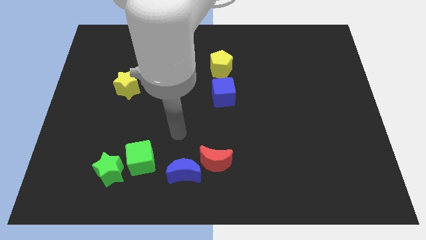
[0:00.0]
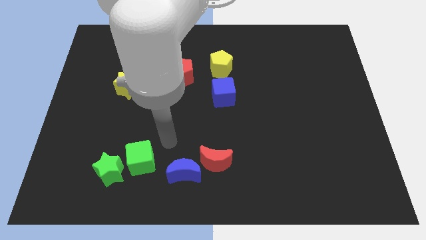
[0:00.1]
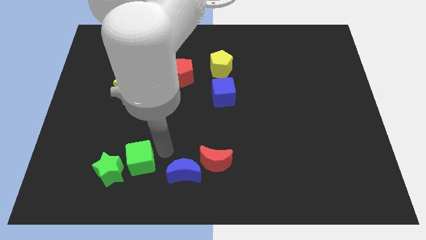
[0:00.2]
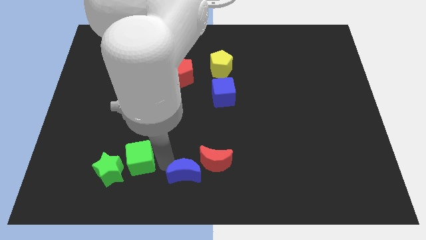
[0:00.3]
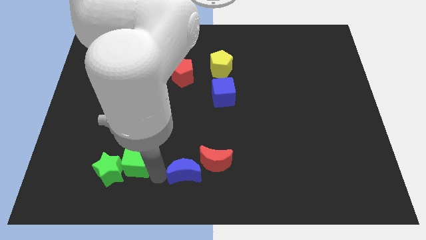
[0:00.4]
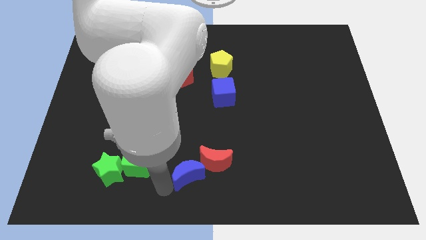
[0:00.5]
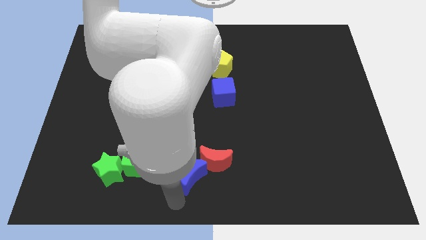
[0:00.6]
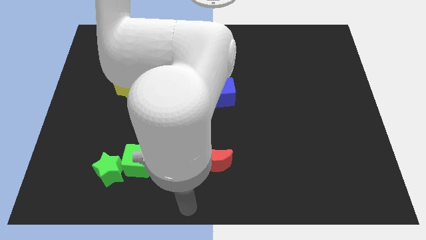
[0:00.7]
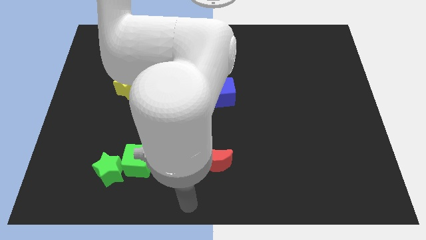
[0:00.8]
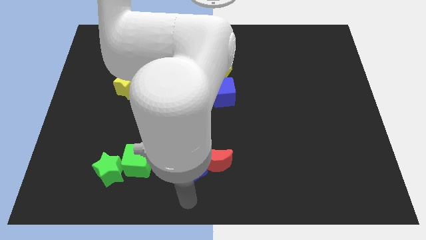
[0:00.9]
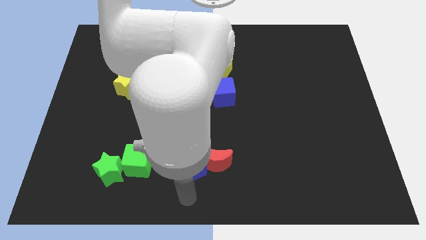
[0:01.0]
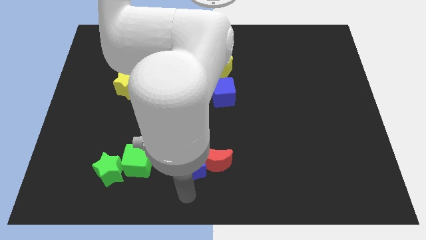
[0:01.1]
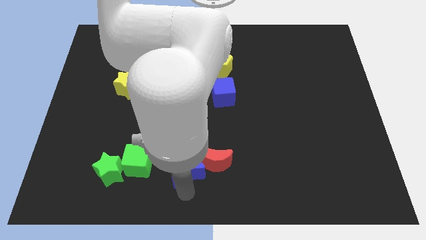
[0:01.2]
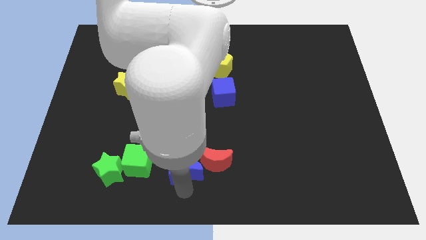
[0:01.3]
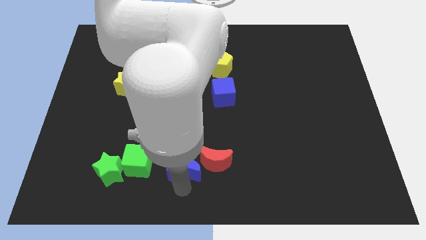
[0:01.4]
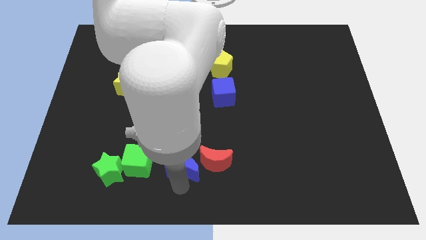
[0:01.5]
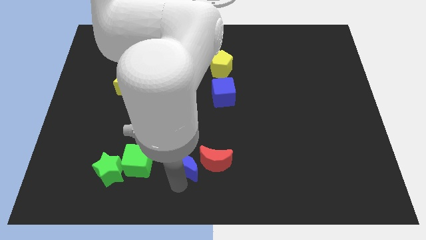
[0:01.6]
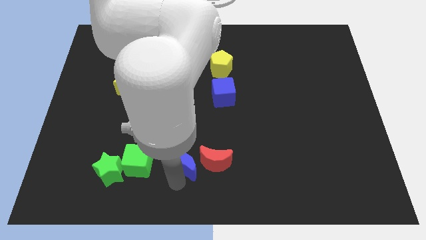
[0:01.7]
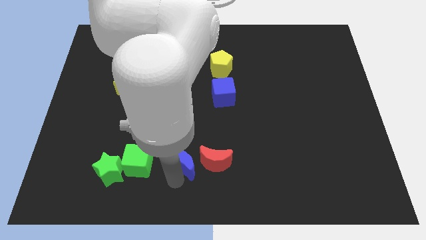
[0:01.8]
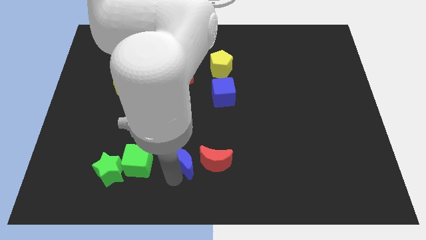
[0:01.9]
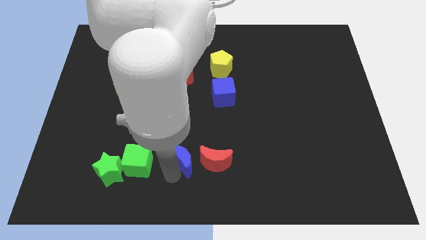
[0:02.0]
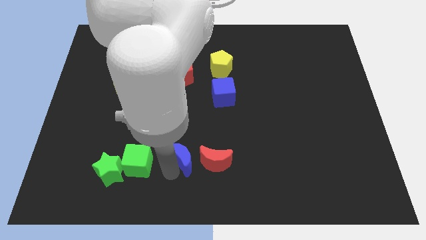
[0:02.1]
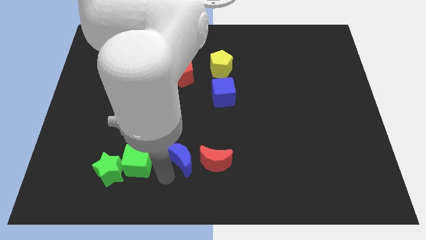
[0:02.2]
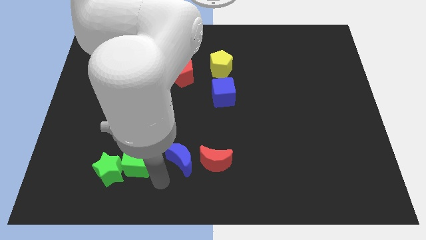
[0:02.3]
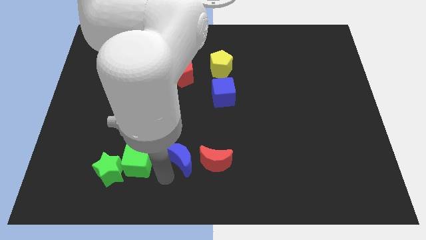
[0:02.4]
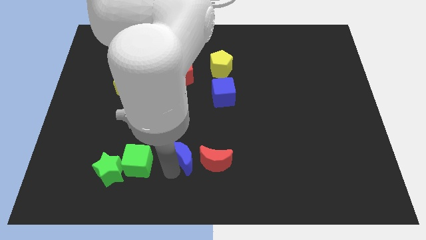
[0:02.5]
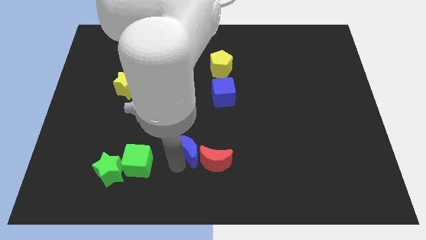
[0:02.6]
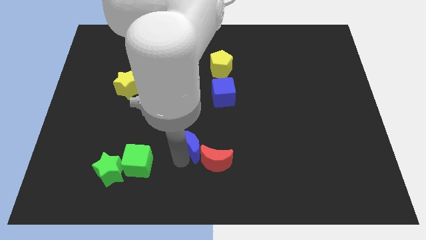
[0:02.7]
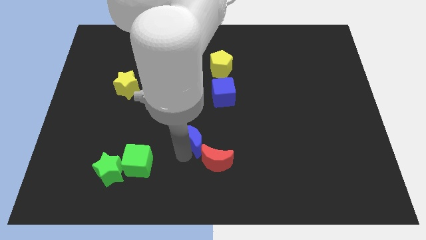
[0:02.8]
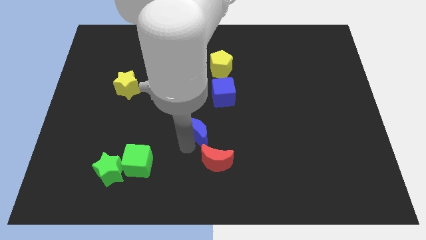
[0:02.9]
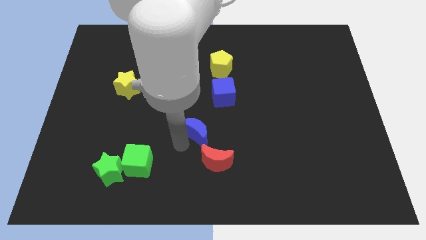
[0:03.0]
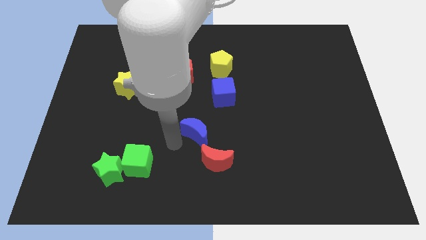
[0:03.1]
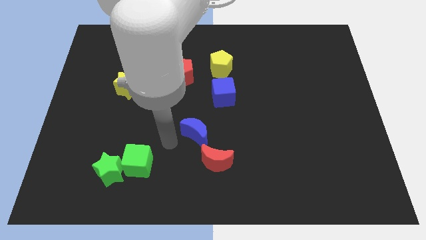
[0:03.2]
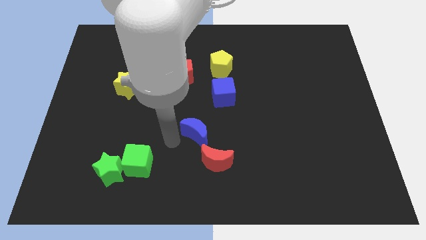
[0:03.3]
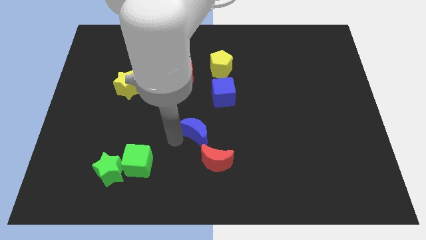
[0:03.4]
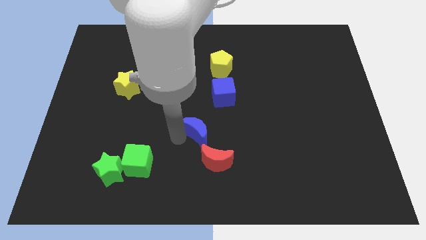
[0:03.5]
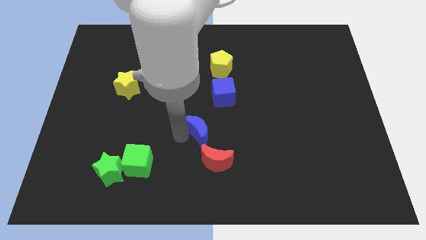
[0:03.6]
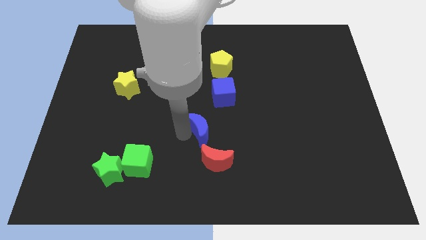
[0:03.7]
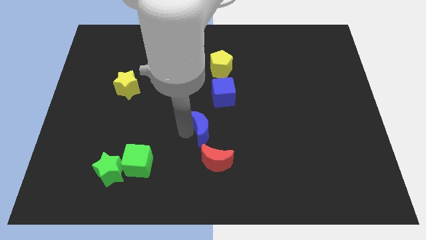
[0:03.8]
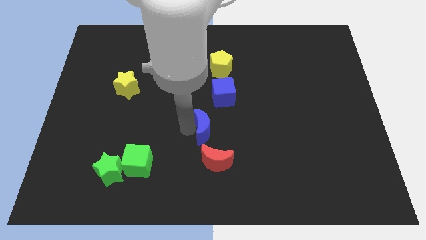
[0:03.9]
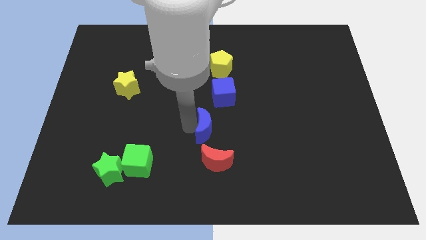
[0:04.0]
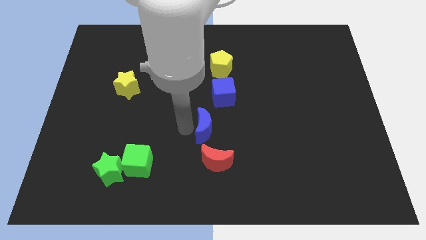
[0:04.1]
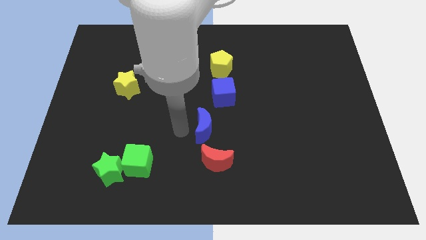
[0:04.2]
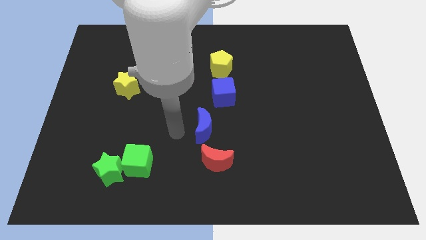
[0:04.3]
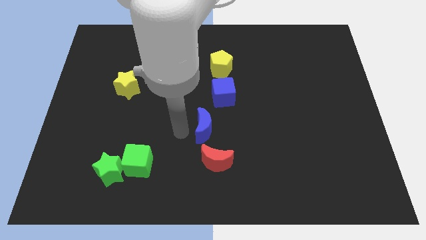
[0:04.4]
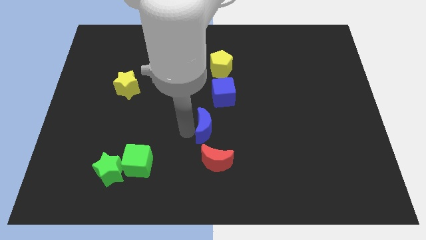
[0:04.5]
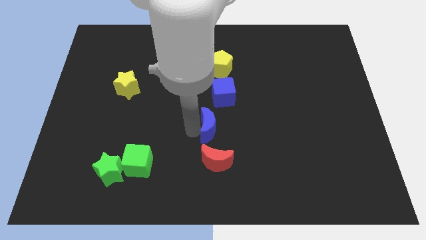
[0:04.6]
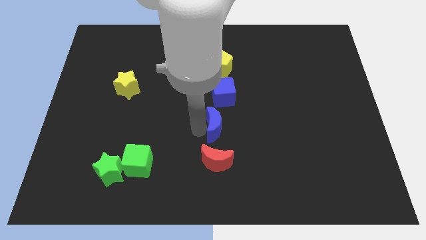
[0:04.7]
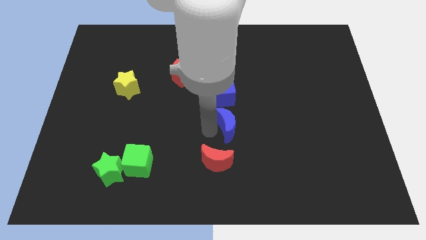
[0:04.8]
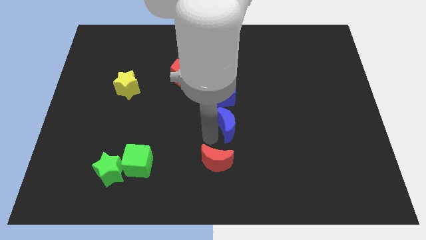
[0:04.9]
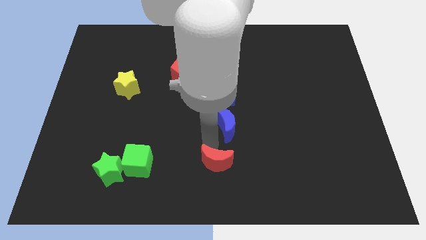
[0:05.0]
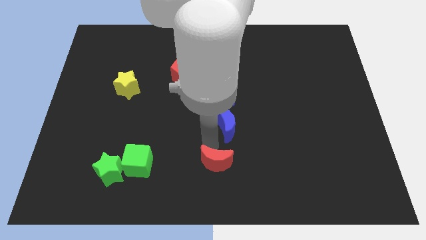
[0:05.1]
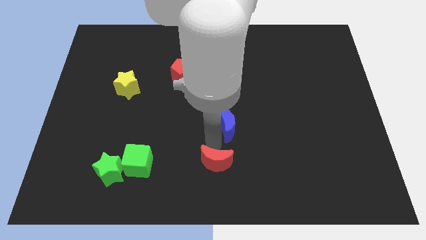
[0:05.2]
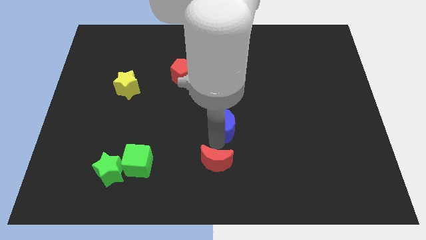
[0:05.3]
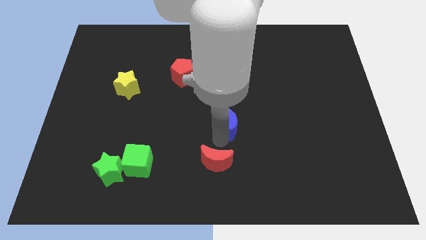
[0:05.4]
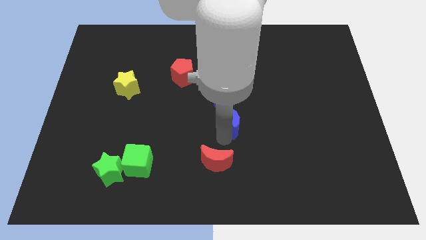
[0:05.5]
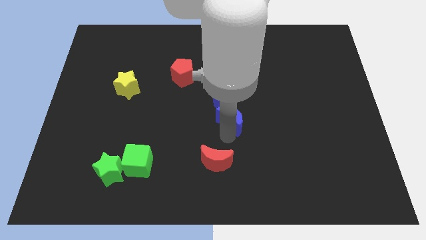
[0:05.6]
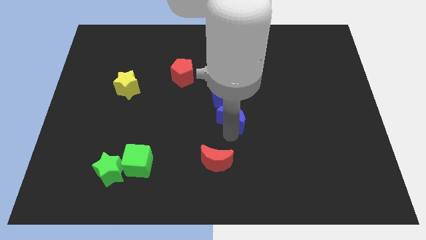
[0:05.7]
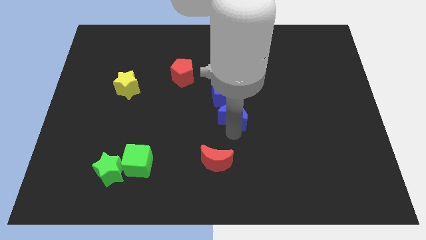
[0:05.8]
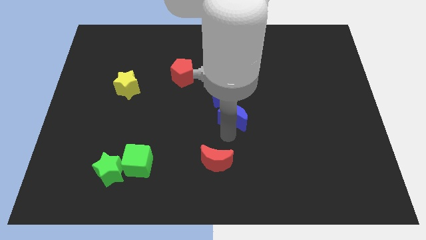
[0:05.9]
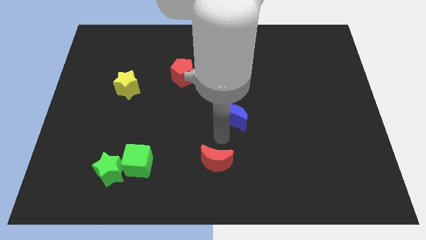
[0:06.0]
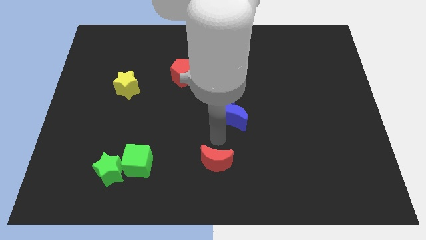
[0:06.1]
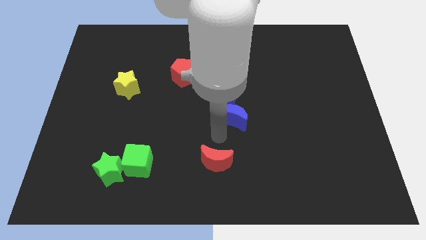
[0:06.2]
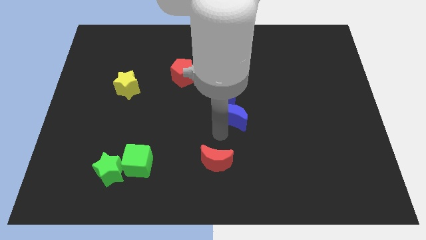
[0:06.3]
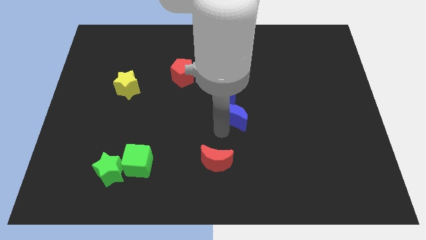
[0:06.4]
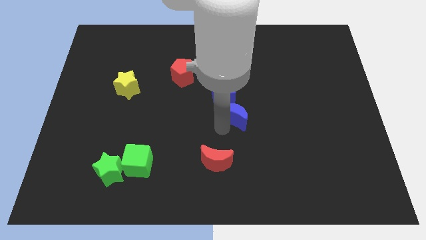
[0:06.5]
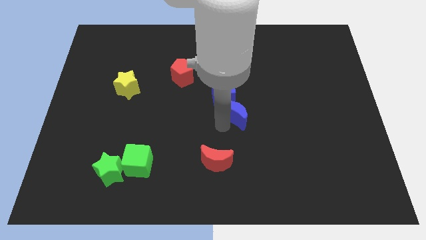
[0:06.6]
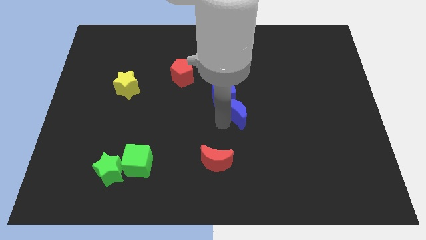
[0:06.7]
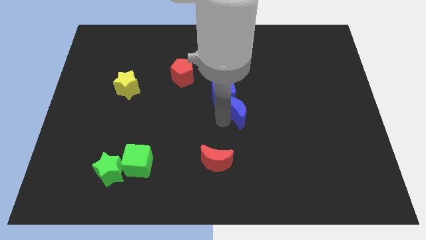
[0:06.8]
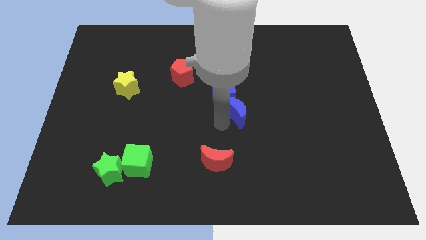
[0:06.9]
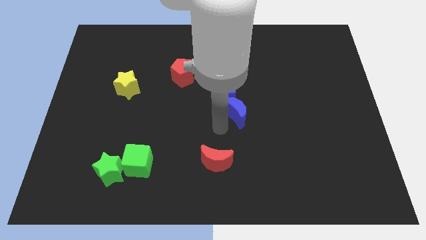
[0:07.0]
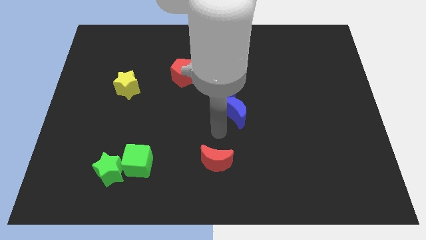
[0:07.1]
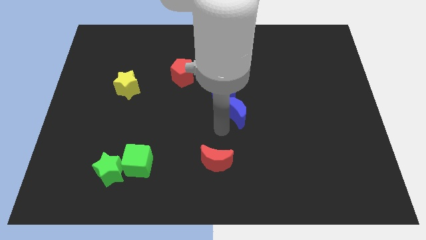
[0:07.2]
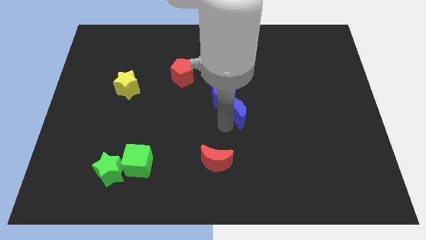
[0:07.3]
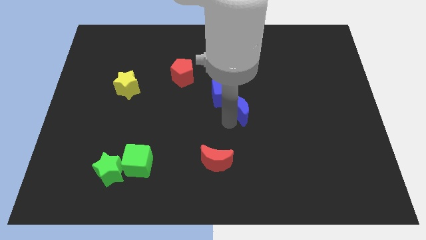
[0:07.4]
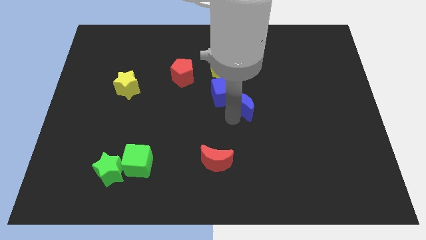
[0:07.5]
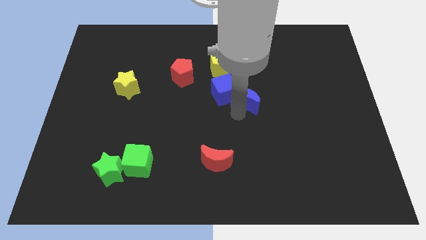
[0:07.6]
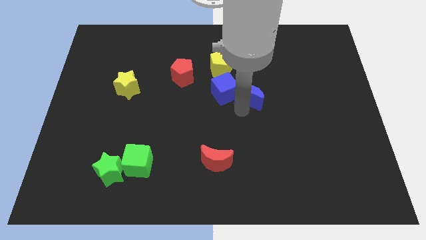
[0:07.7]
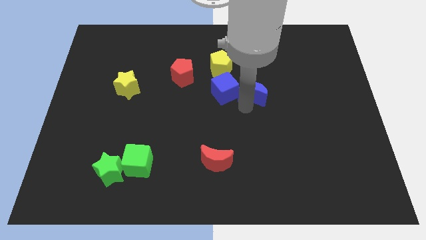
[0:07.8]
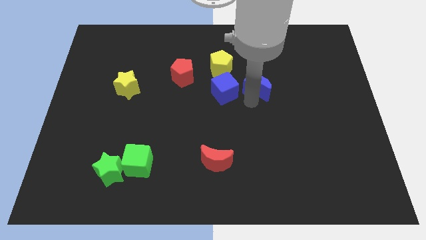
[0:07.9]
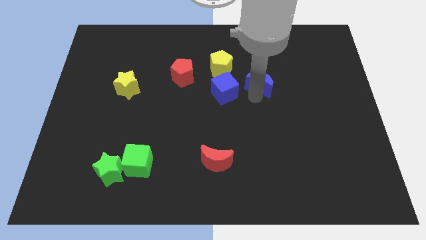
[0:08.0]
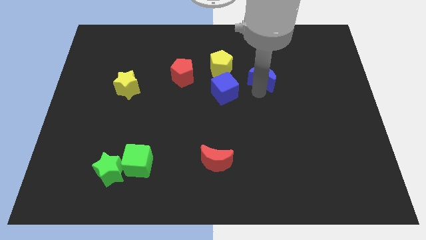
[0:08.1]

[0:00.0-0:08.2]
push the blue moon right of the yellow pentagon
